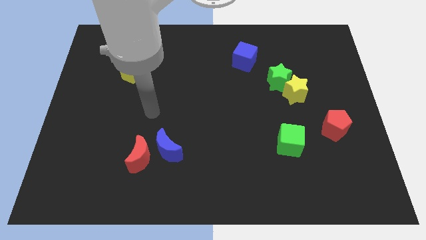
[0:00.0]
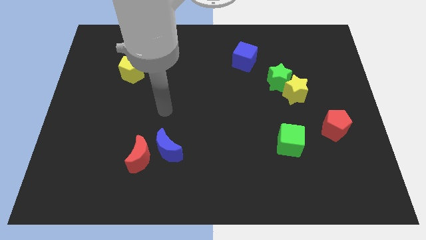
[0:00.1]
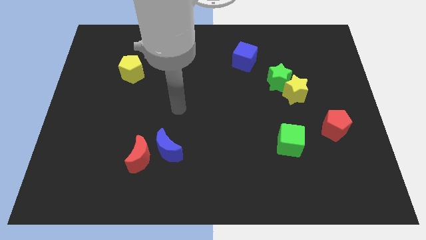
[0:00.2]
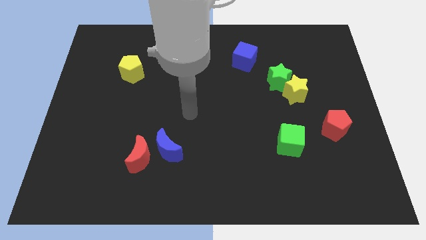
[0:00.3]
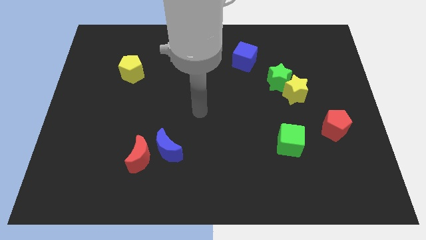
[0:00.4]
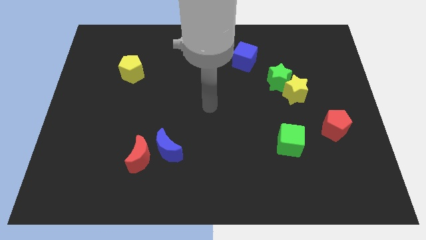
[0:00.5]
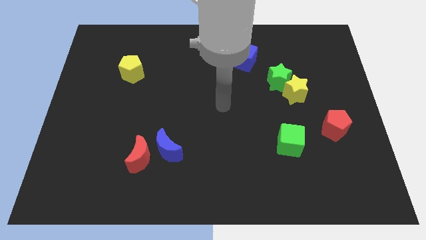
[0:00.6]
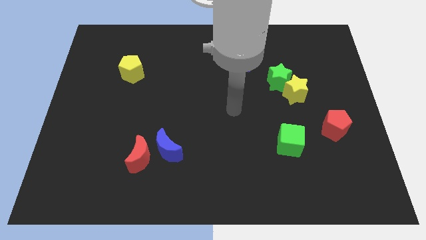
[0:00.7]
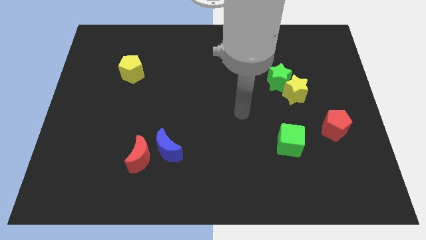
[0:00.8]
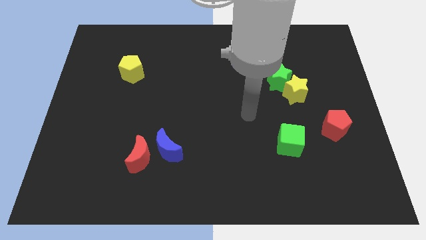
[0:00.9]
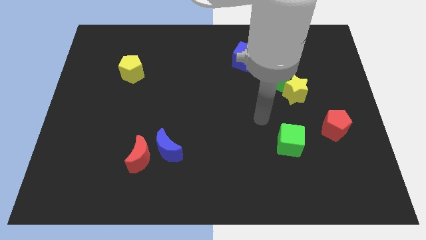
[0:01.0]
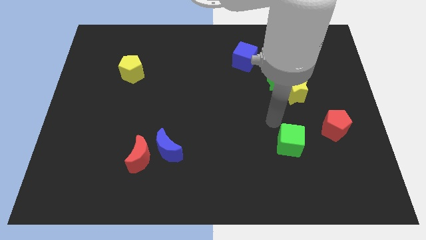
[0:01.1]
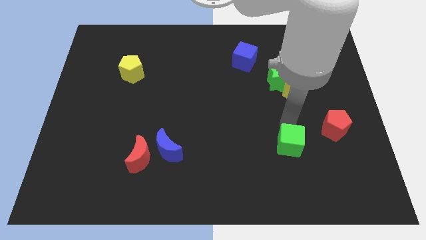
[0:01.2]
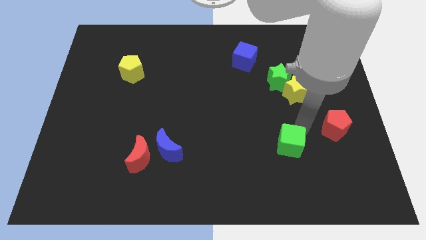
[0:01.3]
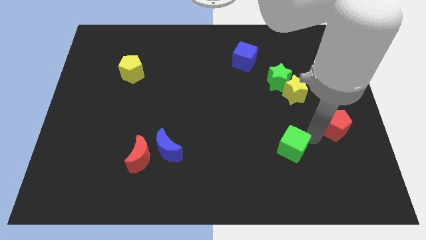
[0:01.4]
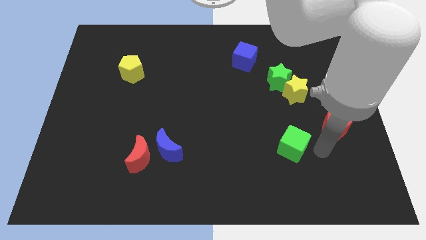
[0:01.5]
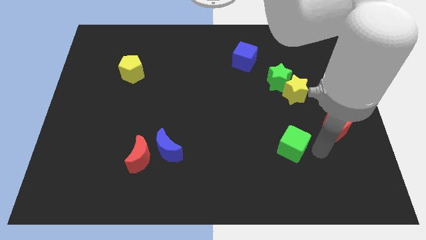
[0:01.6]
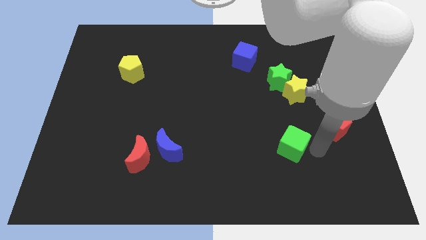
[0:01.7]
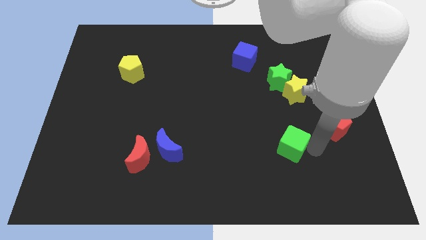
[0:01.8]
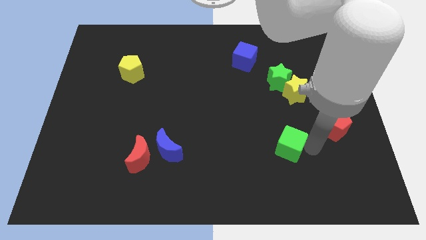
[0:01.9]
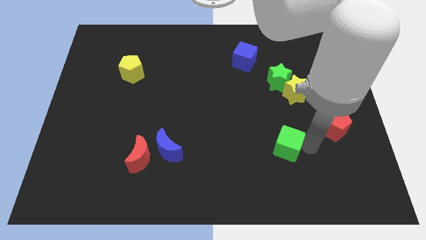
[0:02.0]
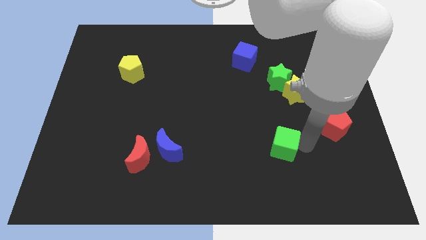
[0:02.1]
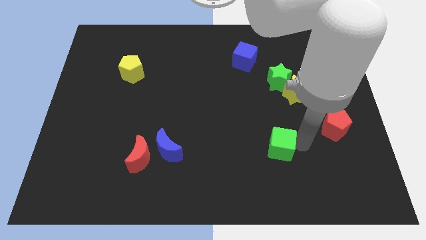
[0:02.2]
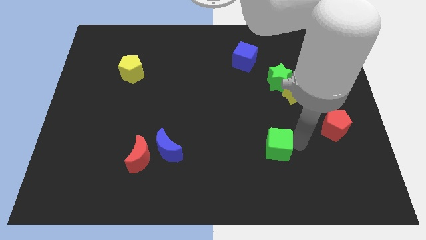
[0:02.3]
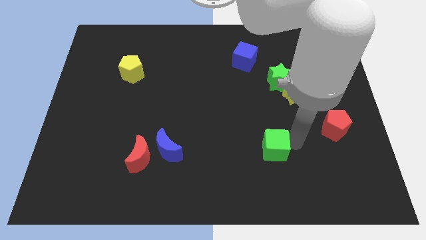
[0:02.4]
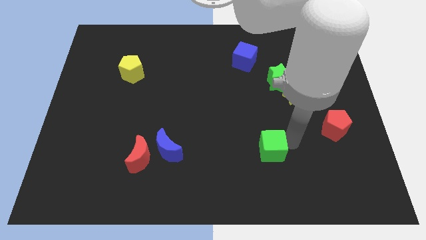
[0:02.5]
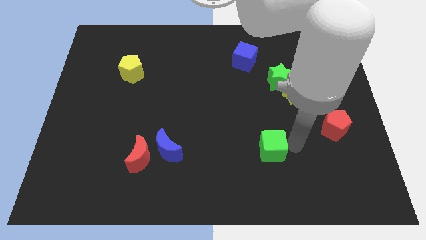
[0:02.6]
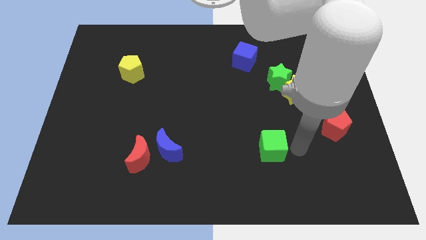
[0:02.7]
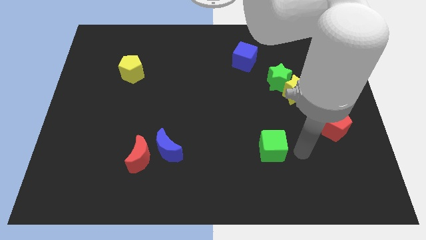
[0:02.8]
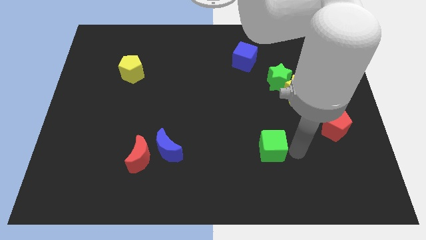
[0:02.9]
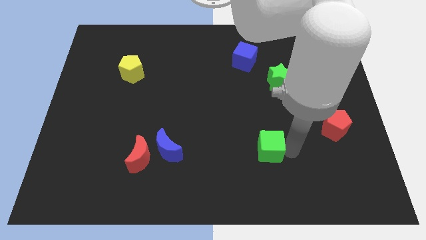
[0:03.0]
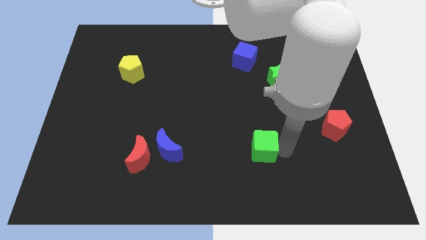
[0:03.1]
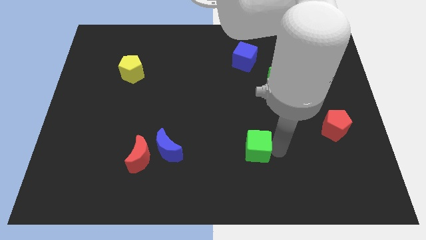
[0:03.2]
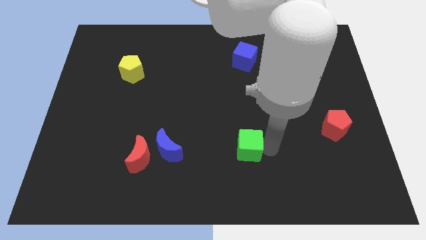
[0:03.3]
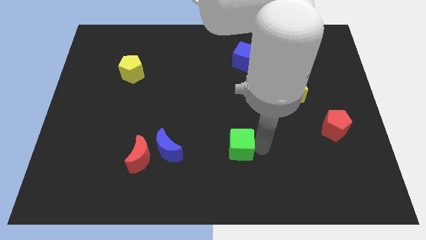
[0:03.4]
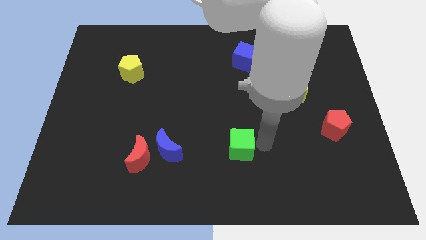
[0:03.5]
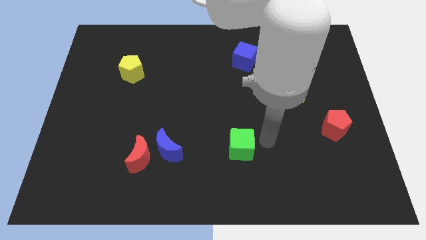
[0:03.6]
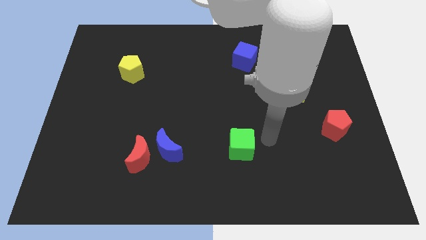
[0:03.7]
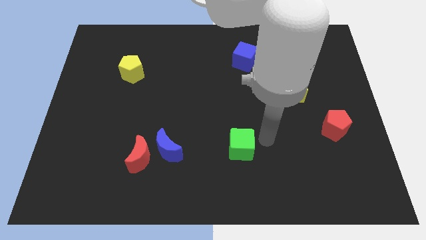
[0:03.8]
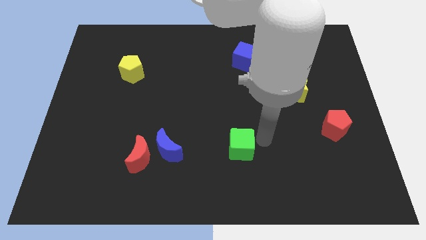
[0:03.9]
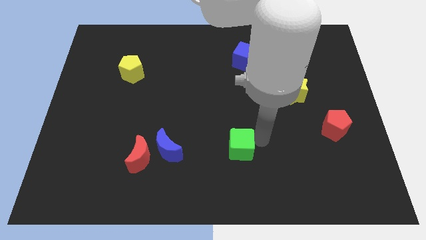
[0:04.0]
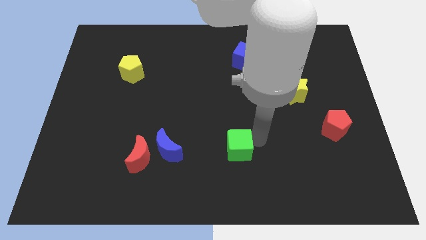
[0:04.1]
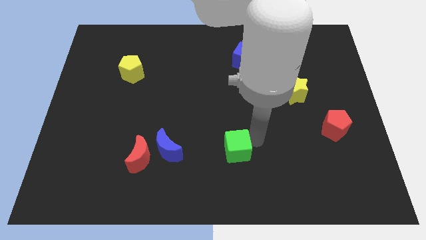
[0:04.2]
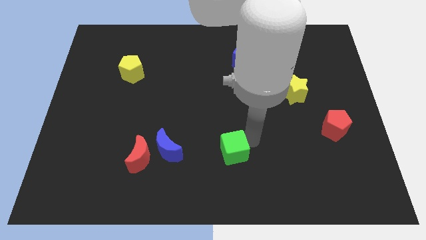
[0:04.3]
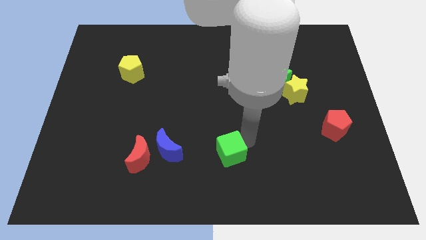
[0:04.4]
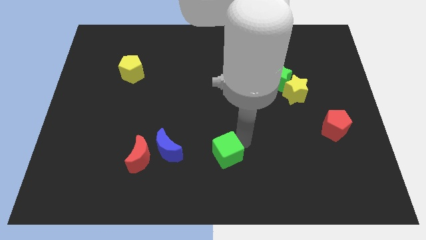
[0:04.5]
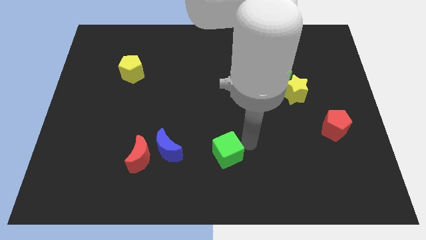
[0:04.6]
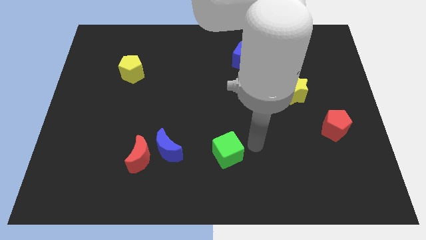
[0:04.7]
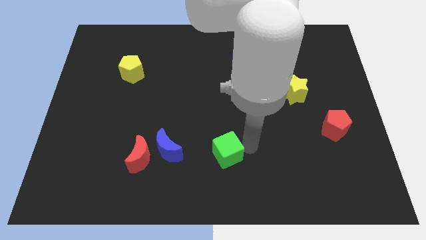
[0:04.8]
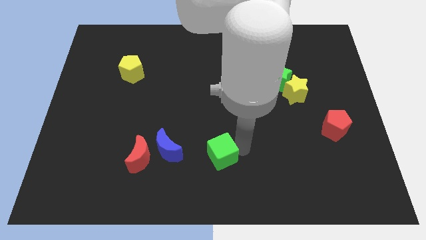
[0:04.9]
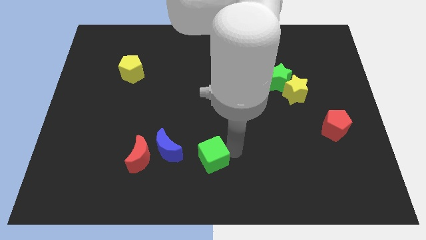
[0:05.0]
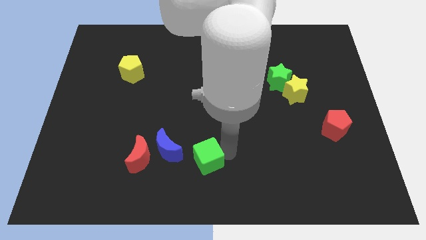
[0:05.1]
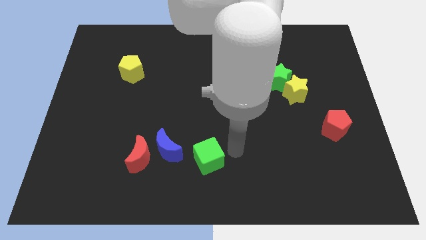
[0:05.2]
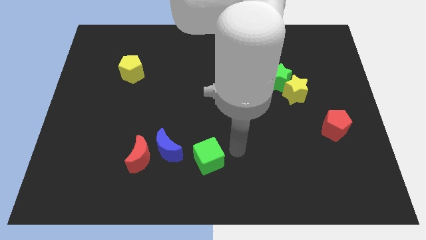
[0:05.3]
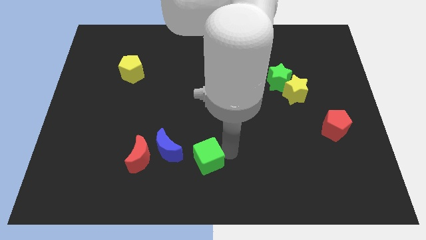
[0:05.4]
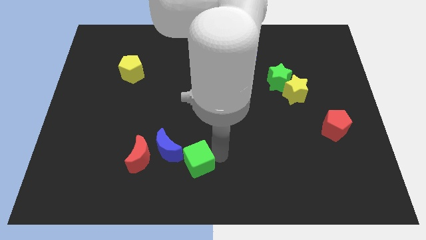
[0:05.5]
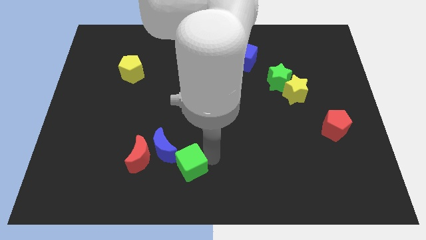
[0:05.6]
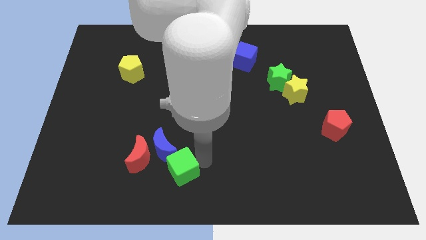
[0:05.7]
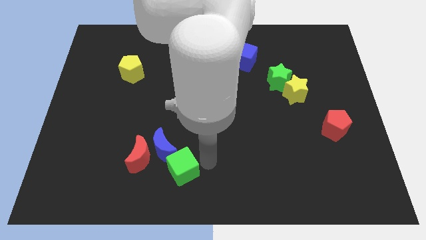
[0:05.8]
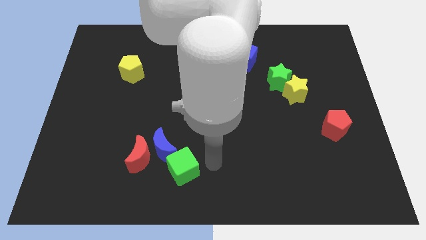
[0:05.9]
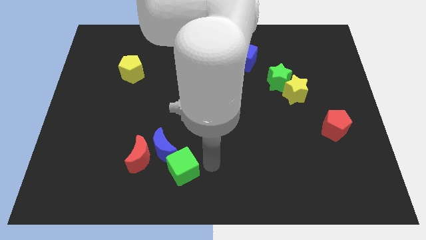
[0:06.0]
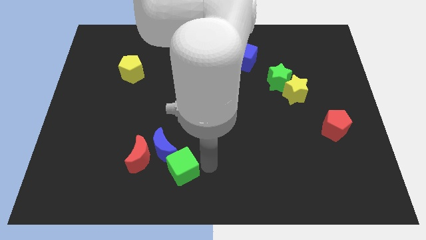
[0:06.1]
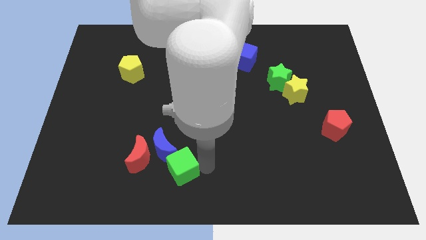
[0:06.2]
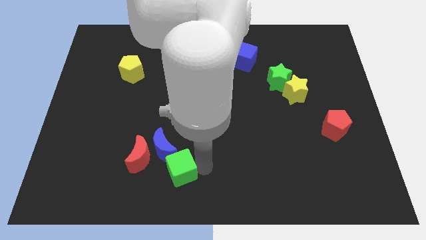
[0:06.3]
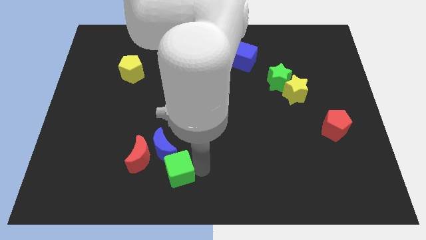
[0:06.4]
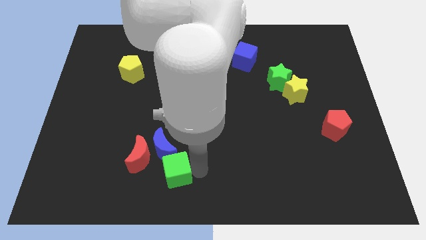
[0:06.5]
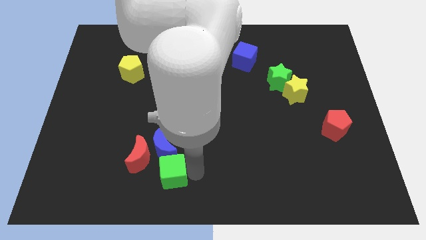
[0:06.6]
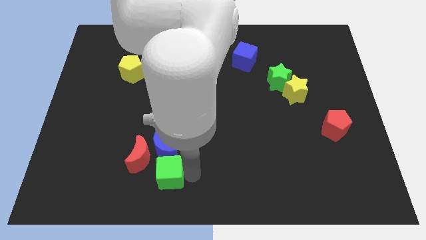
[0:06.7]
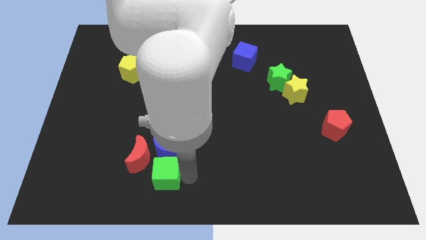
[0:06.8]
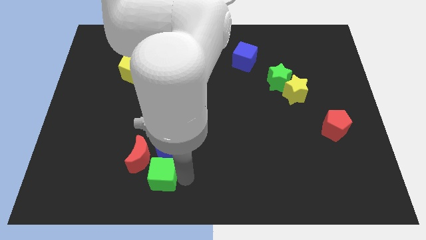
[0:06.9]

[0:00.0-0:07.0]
slide the green cube to the bottom left of the blue moon

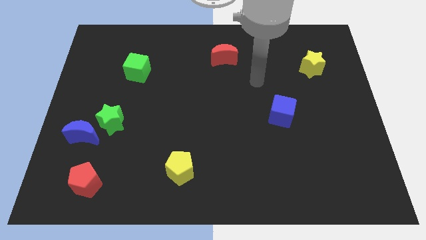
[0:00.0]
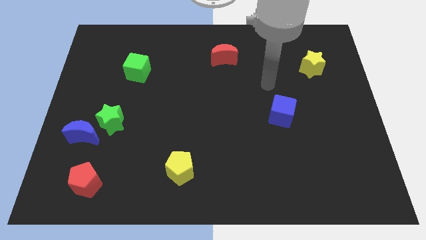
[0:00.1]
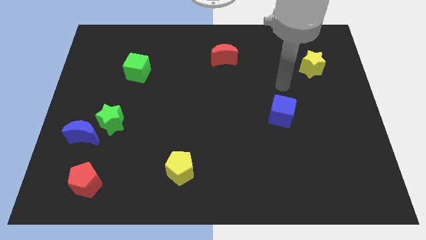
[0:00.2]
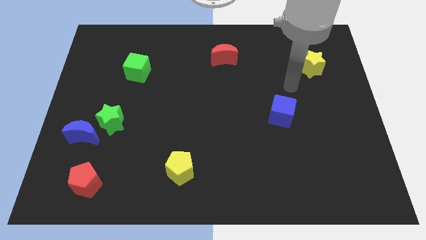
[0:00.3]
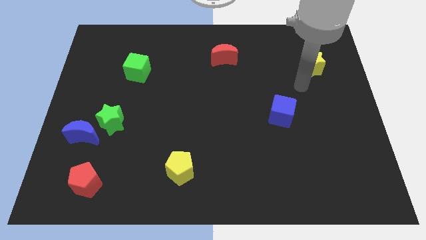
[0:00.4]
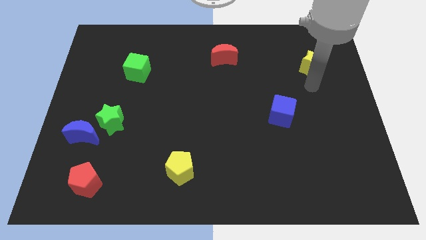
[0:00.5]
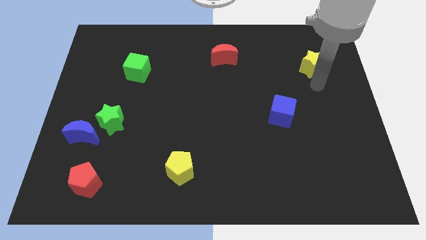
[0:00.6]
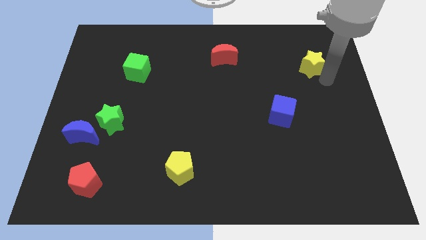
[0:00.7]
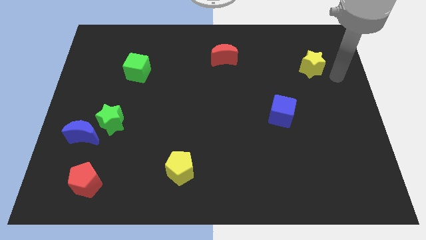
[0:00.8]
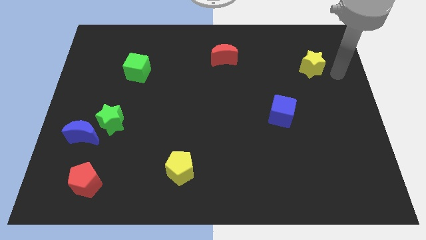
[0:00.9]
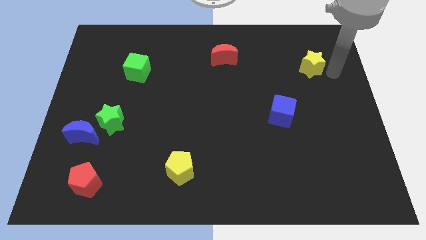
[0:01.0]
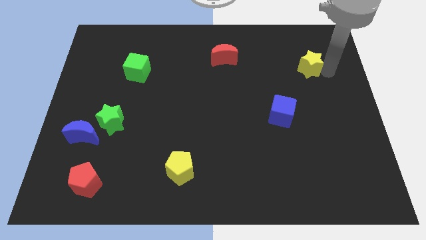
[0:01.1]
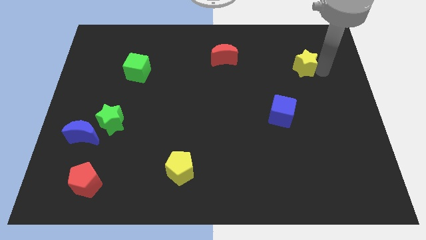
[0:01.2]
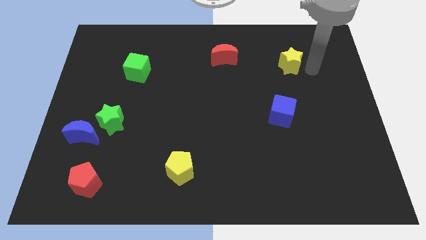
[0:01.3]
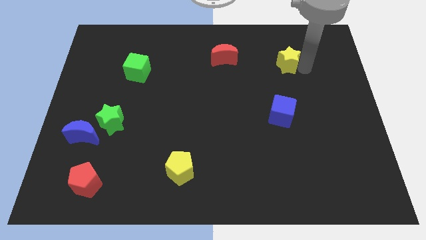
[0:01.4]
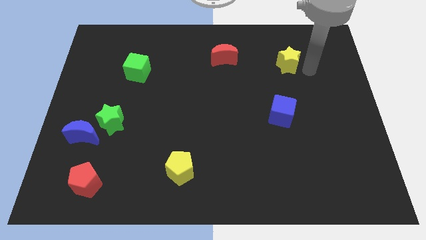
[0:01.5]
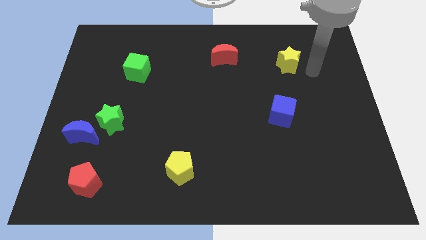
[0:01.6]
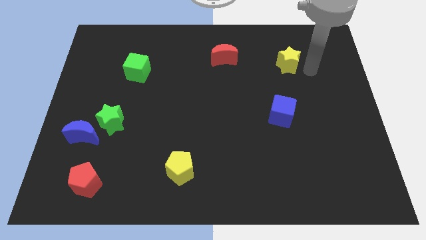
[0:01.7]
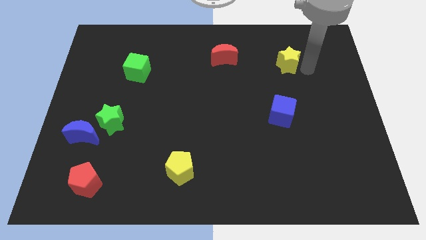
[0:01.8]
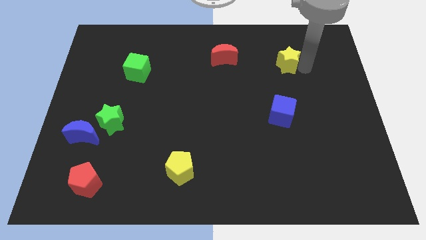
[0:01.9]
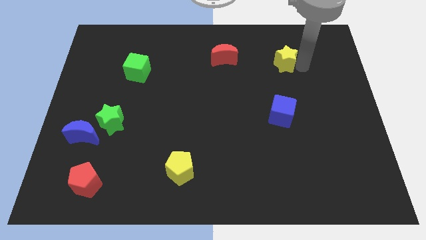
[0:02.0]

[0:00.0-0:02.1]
put the yellow star to the right of the red moon
